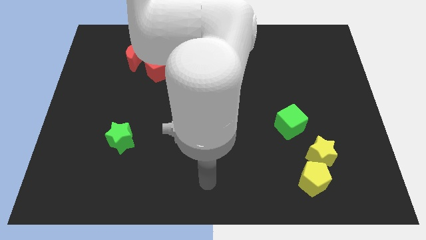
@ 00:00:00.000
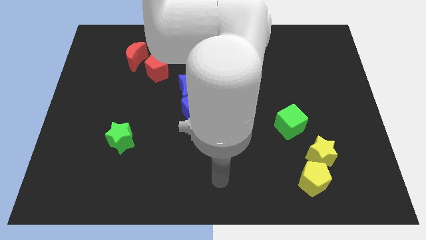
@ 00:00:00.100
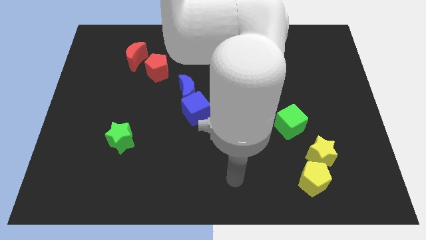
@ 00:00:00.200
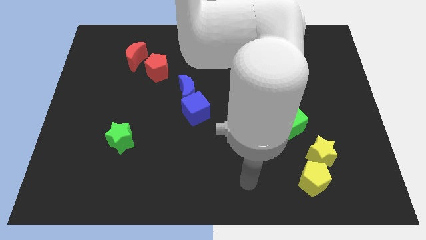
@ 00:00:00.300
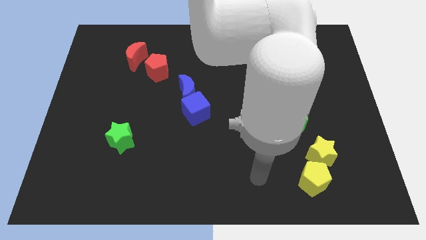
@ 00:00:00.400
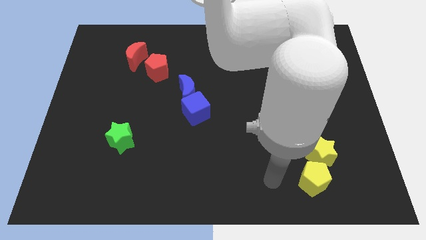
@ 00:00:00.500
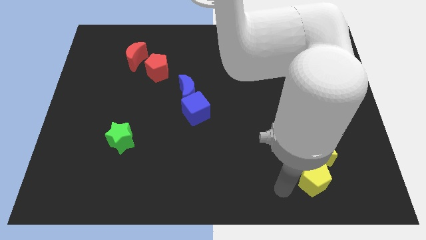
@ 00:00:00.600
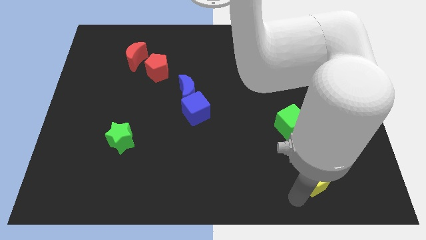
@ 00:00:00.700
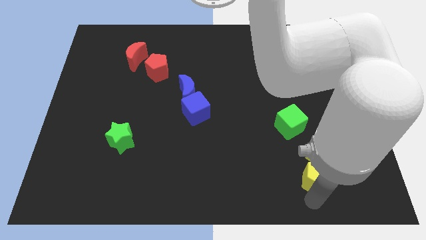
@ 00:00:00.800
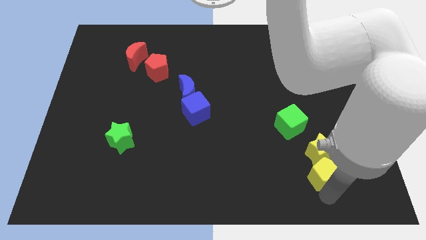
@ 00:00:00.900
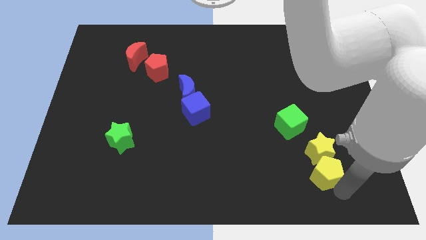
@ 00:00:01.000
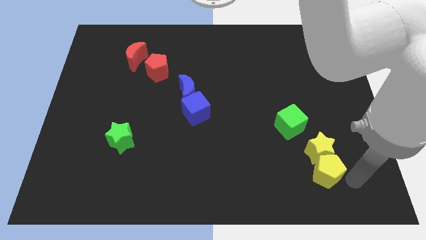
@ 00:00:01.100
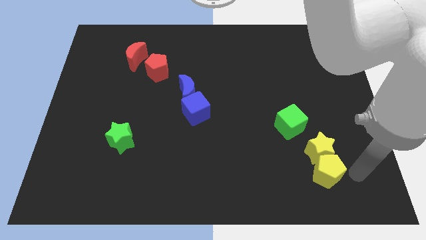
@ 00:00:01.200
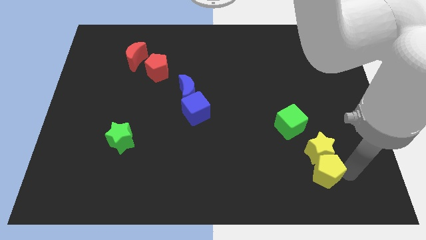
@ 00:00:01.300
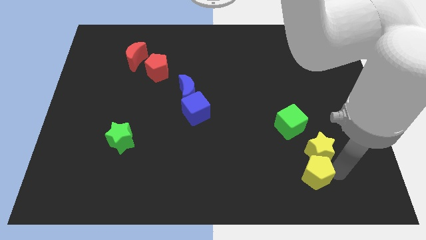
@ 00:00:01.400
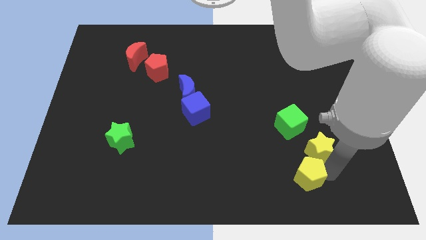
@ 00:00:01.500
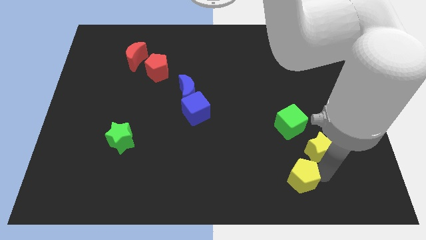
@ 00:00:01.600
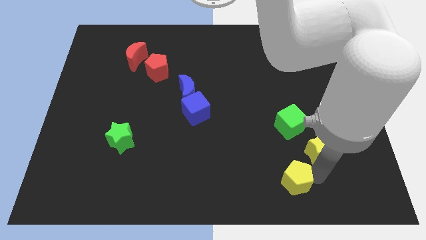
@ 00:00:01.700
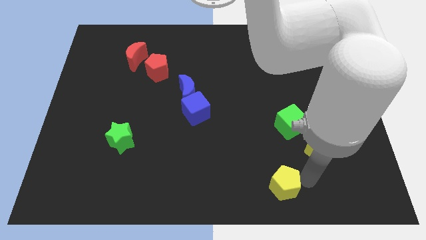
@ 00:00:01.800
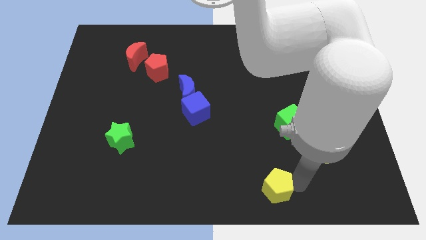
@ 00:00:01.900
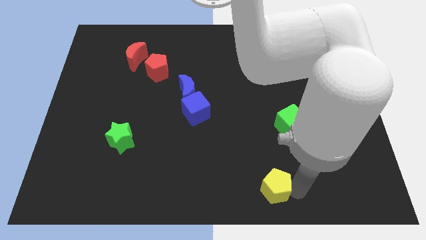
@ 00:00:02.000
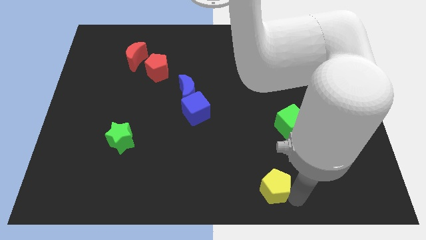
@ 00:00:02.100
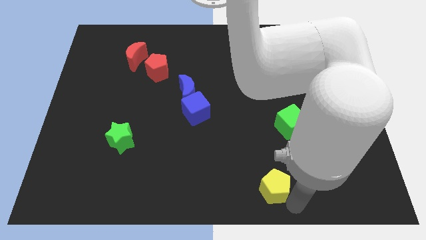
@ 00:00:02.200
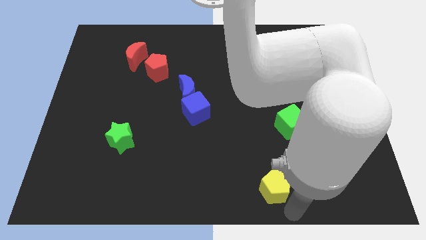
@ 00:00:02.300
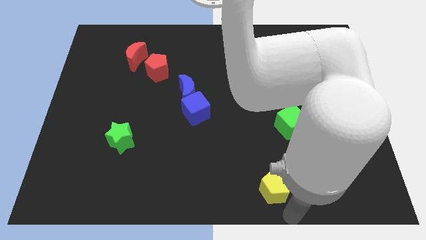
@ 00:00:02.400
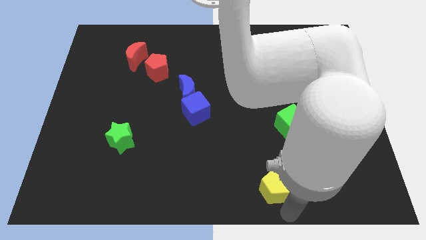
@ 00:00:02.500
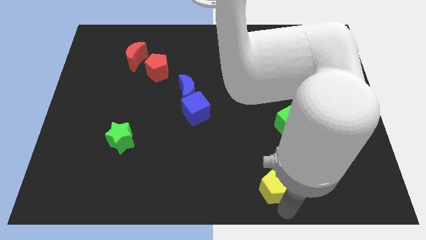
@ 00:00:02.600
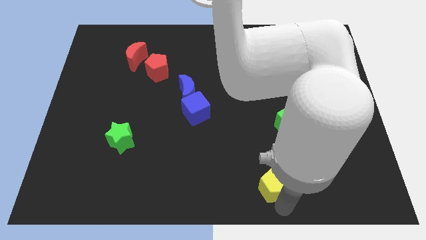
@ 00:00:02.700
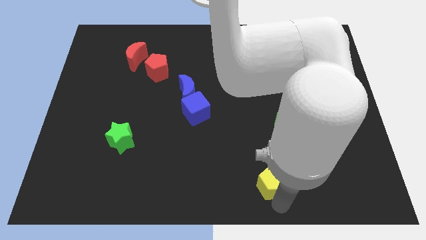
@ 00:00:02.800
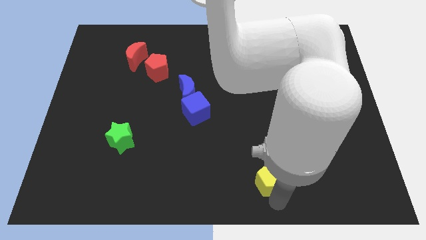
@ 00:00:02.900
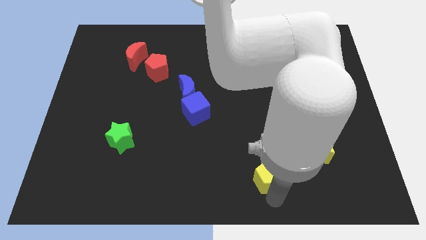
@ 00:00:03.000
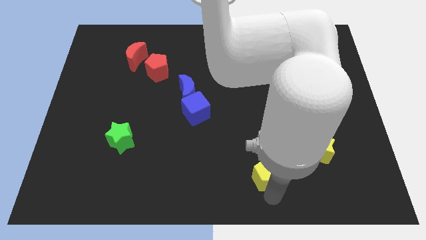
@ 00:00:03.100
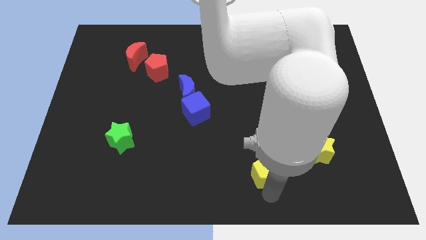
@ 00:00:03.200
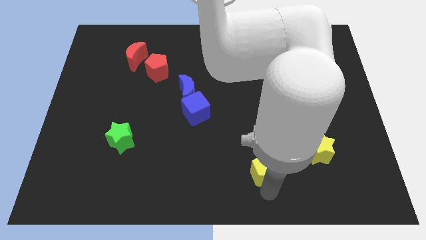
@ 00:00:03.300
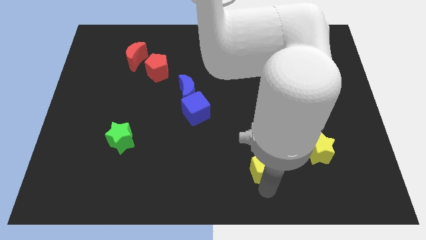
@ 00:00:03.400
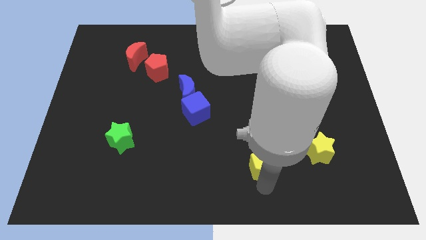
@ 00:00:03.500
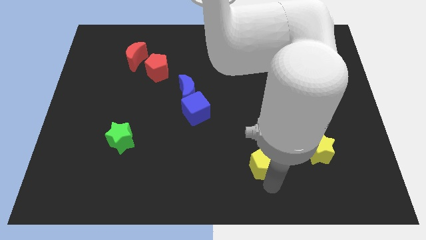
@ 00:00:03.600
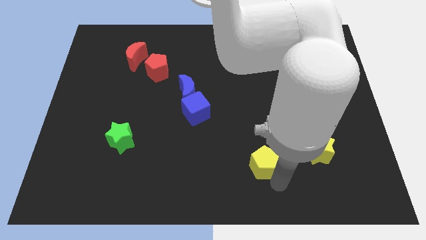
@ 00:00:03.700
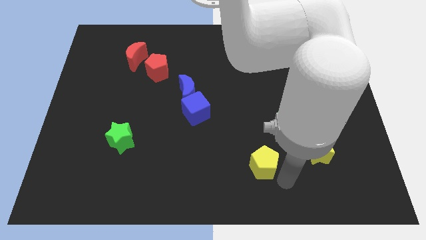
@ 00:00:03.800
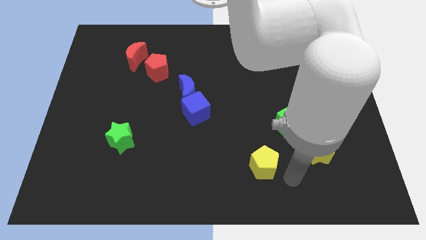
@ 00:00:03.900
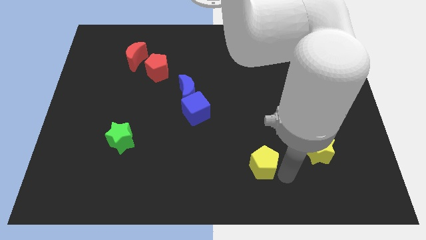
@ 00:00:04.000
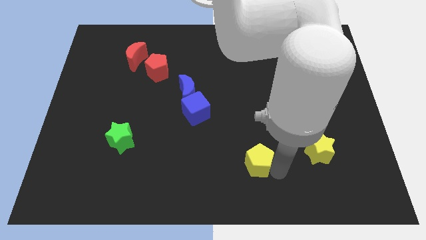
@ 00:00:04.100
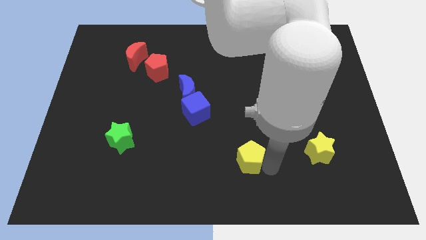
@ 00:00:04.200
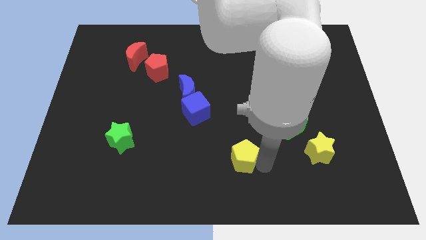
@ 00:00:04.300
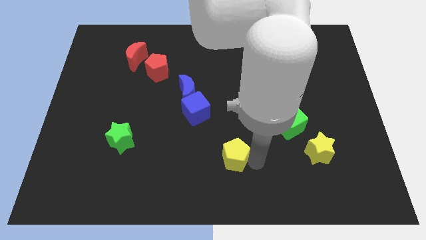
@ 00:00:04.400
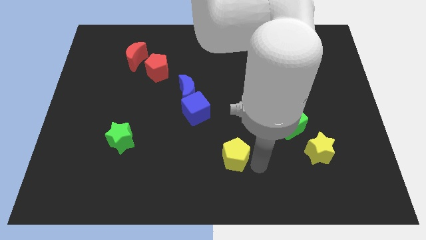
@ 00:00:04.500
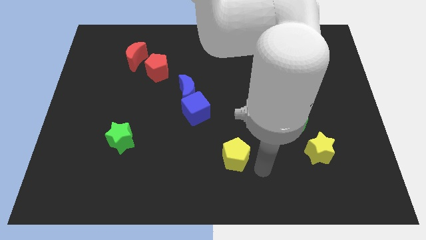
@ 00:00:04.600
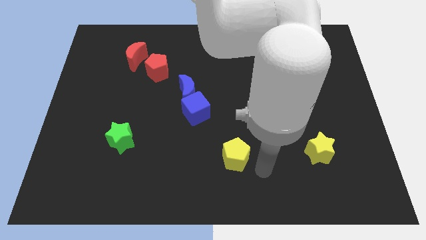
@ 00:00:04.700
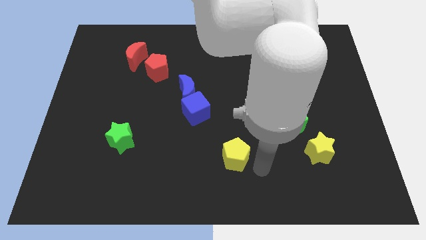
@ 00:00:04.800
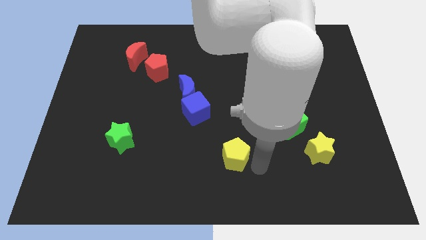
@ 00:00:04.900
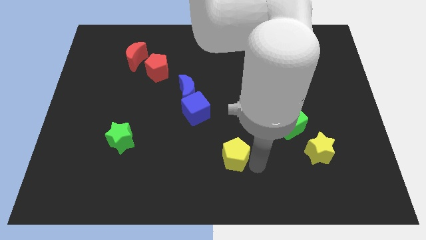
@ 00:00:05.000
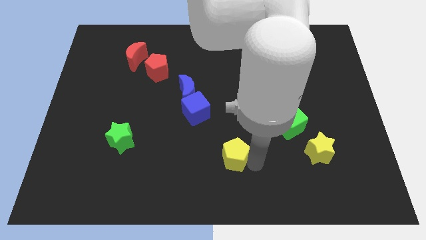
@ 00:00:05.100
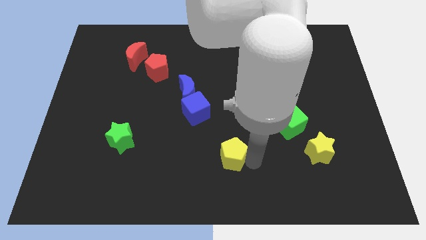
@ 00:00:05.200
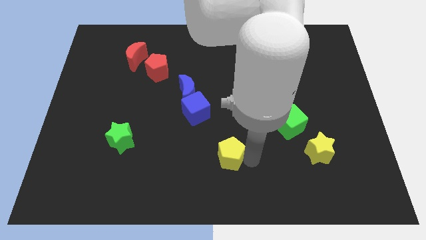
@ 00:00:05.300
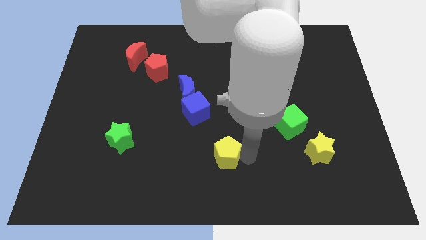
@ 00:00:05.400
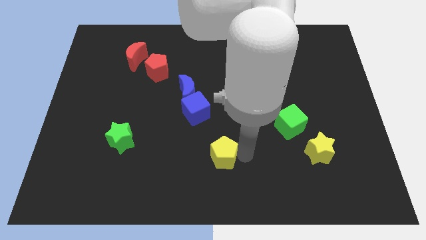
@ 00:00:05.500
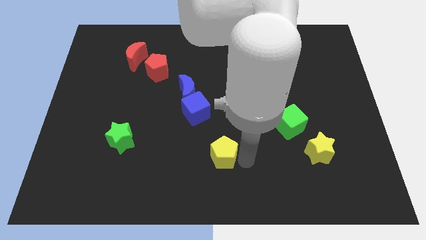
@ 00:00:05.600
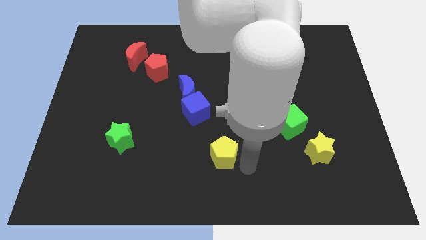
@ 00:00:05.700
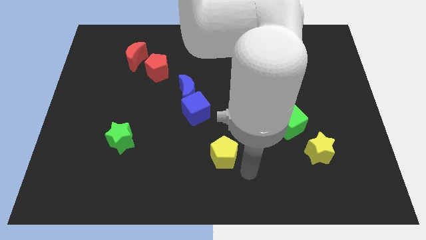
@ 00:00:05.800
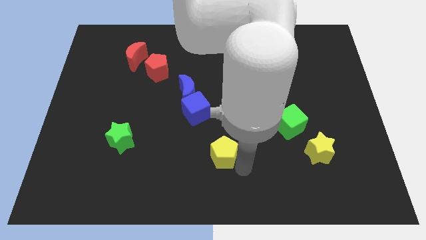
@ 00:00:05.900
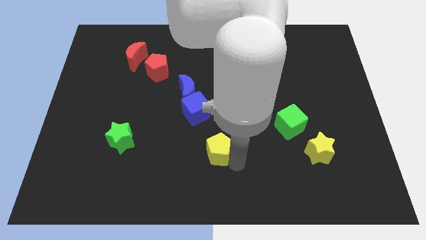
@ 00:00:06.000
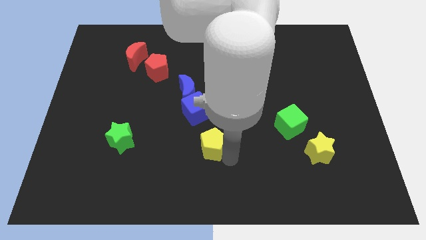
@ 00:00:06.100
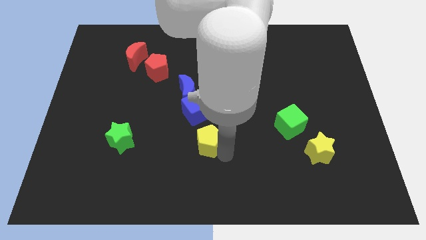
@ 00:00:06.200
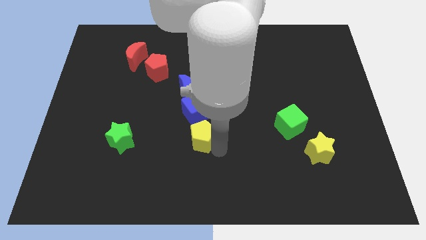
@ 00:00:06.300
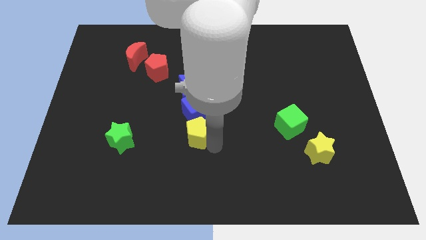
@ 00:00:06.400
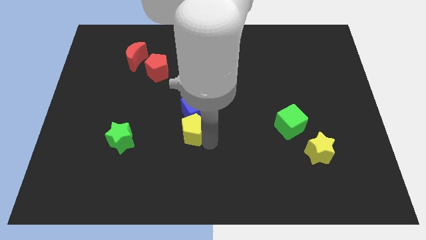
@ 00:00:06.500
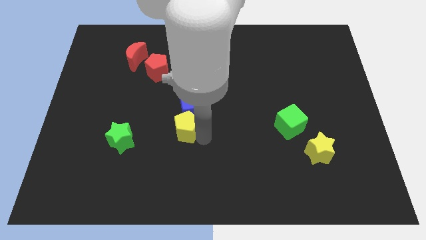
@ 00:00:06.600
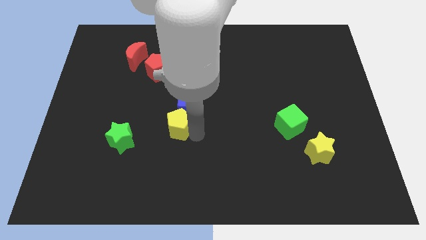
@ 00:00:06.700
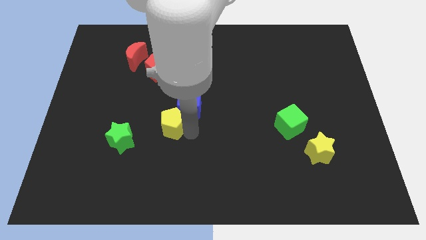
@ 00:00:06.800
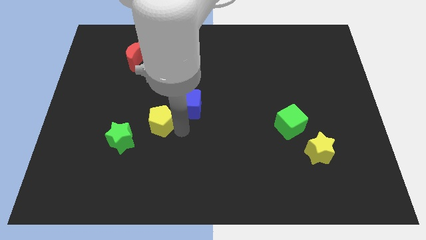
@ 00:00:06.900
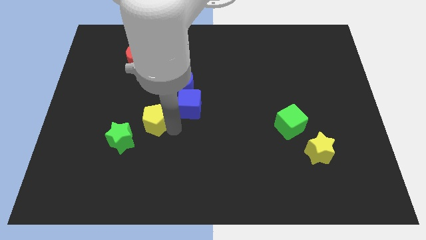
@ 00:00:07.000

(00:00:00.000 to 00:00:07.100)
push the yellow pentagon to the bottom side of the red pentagon
